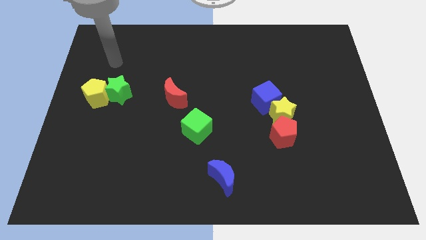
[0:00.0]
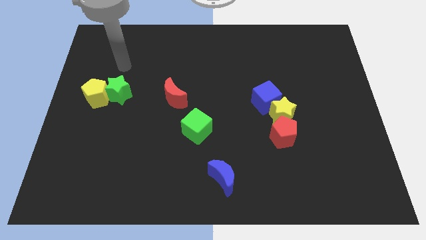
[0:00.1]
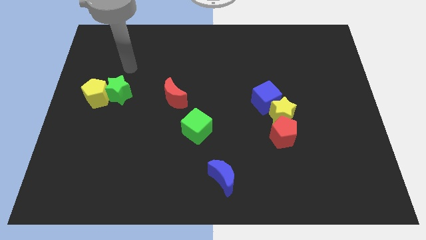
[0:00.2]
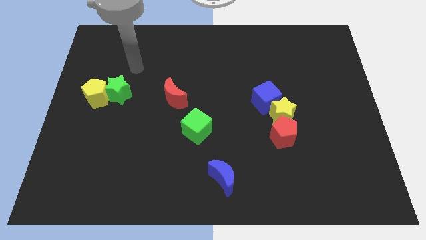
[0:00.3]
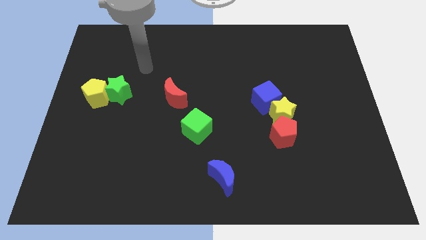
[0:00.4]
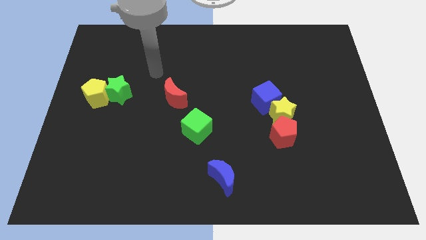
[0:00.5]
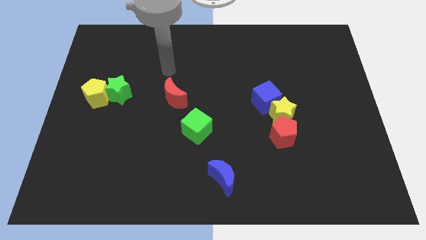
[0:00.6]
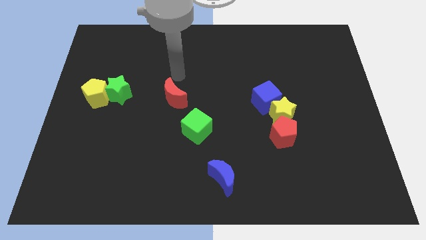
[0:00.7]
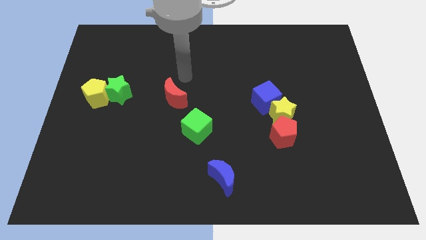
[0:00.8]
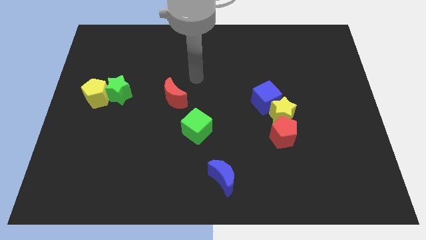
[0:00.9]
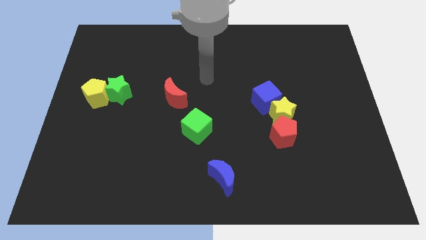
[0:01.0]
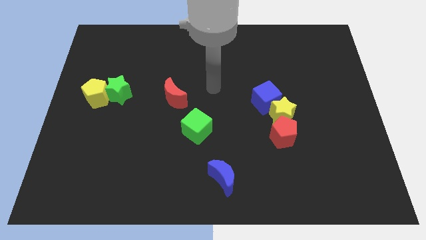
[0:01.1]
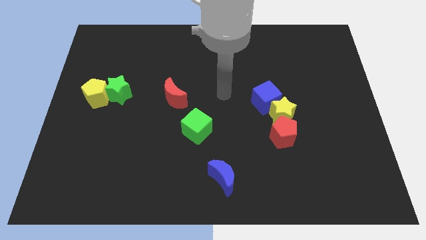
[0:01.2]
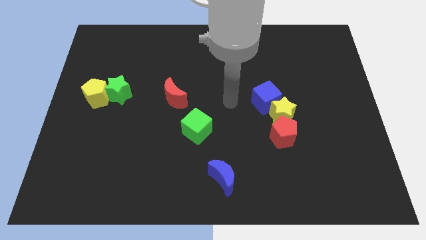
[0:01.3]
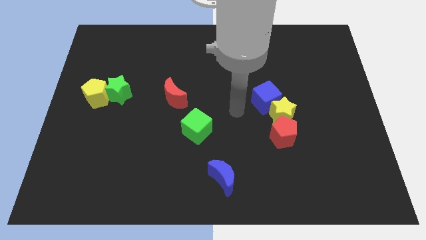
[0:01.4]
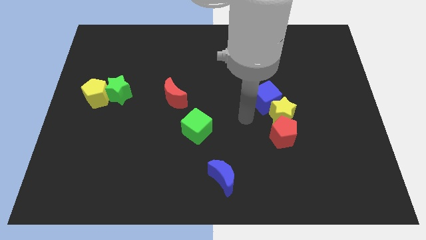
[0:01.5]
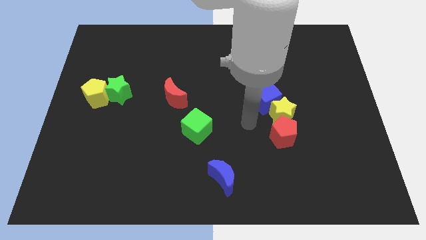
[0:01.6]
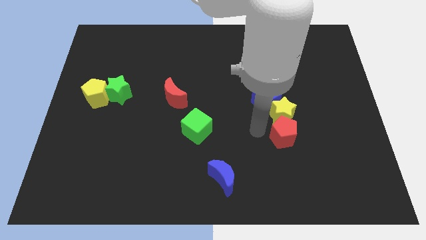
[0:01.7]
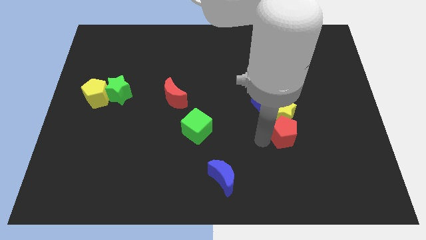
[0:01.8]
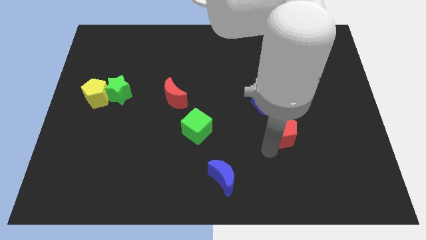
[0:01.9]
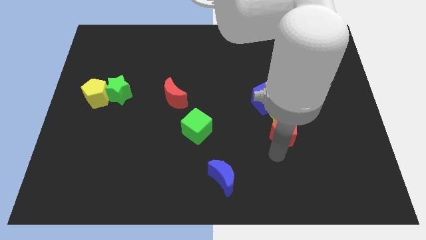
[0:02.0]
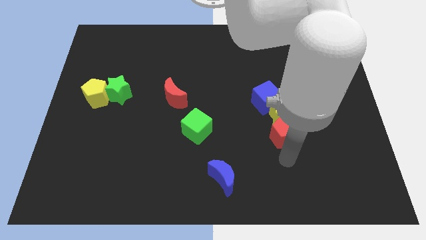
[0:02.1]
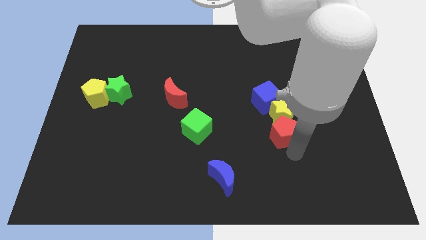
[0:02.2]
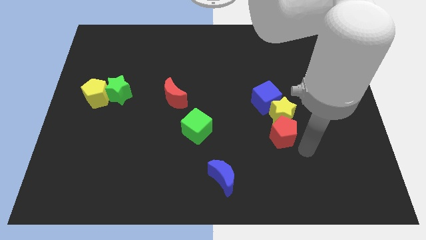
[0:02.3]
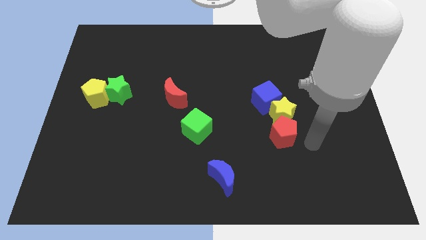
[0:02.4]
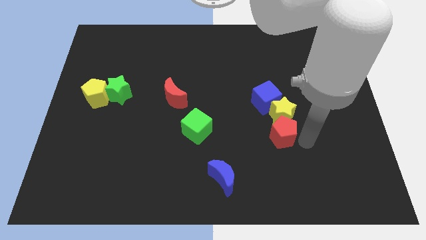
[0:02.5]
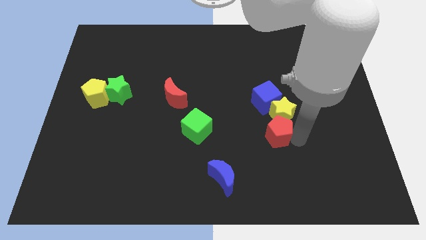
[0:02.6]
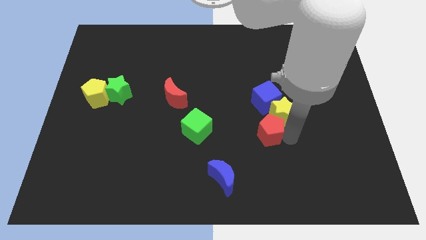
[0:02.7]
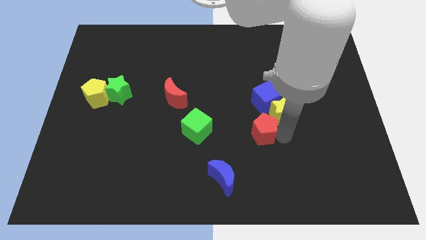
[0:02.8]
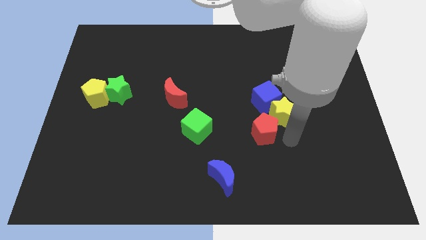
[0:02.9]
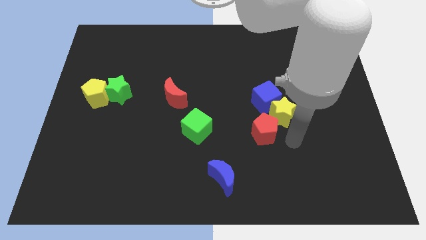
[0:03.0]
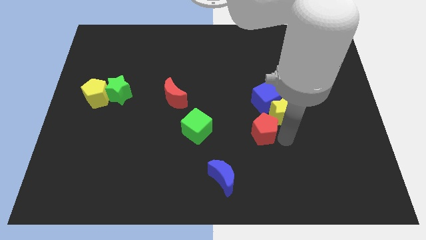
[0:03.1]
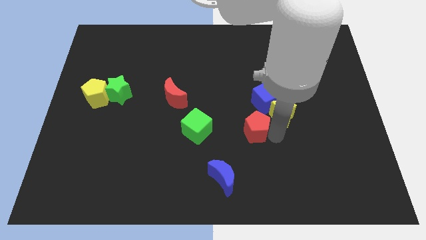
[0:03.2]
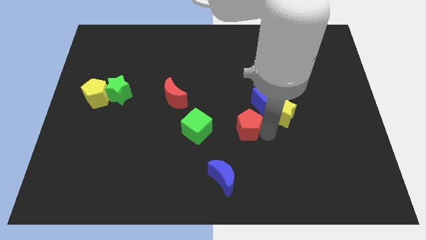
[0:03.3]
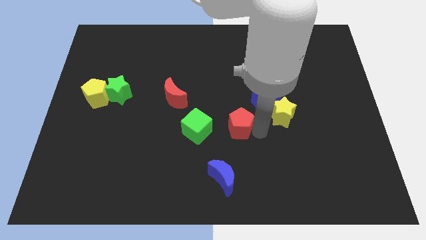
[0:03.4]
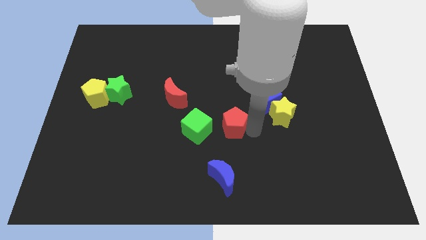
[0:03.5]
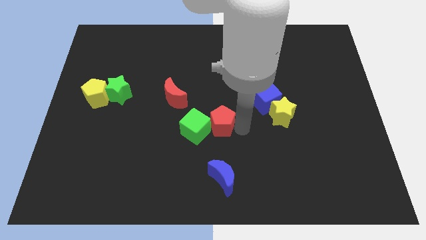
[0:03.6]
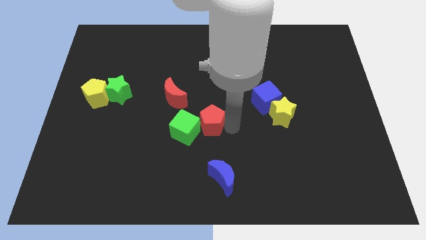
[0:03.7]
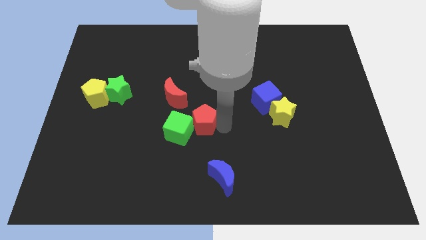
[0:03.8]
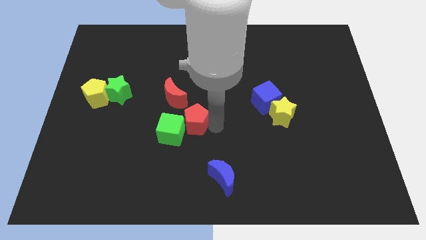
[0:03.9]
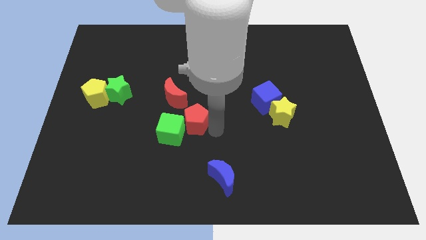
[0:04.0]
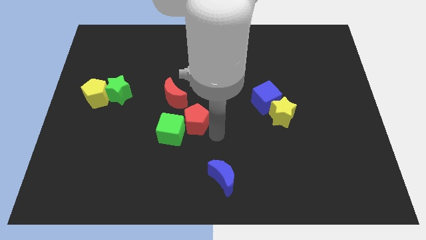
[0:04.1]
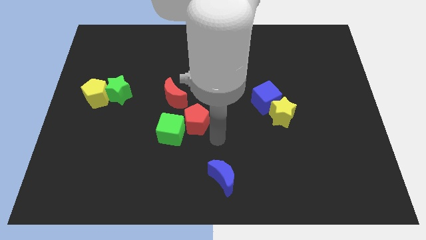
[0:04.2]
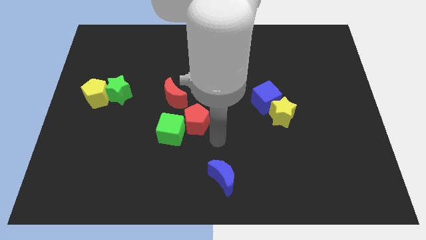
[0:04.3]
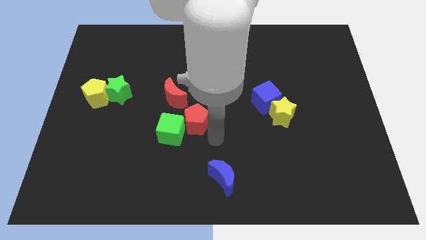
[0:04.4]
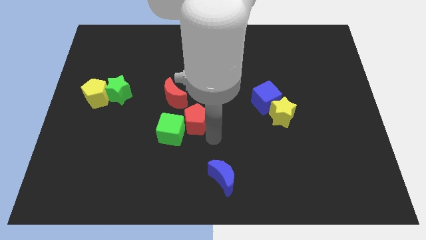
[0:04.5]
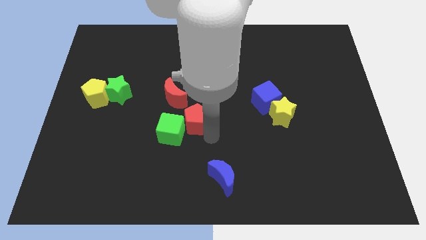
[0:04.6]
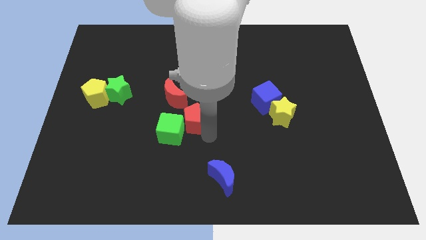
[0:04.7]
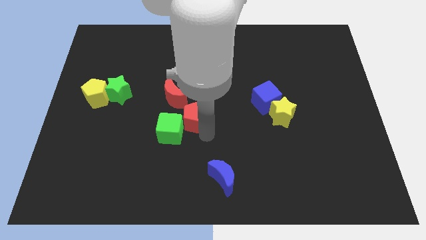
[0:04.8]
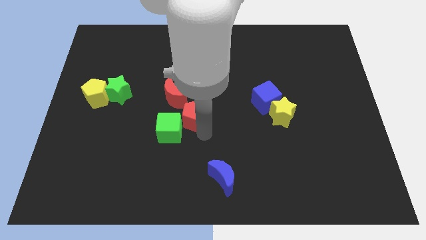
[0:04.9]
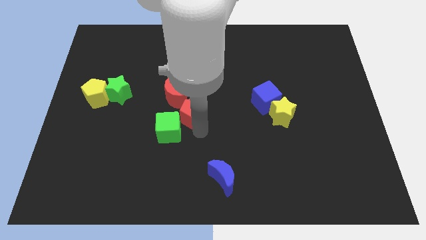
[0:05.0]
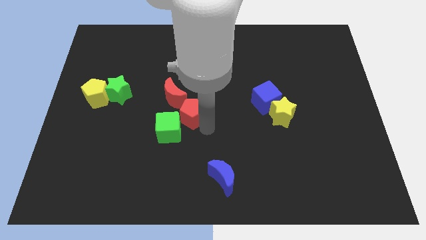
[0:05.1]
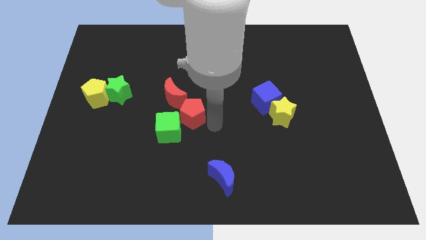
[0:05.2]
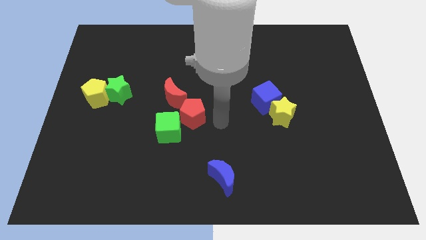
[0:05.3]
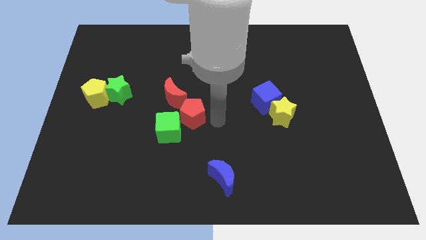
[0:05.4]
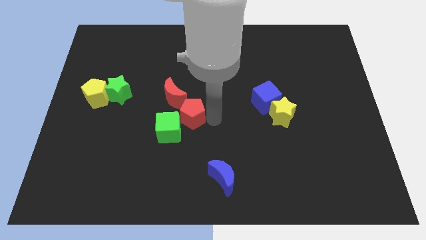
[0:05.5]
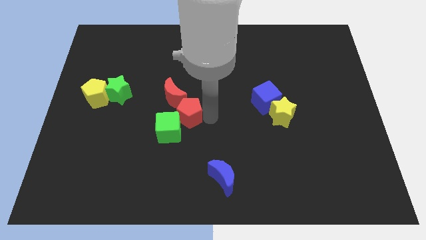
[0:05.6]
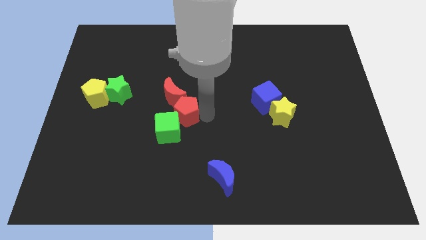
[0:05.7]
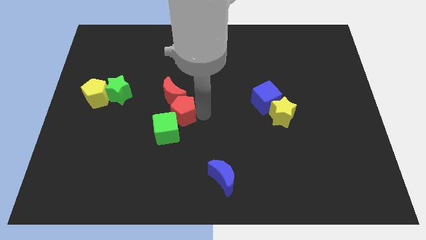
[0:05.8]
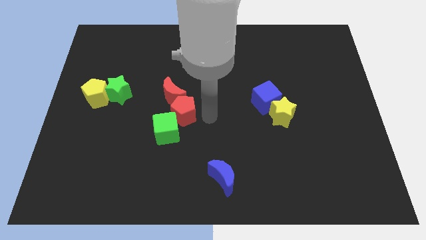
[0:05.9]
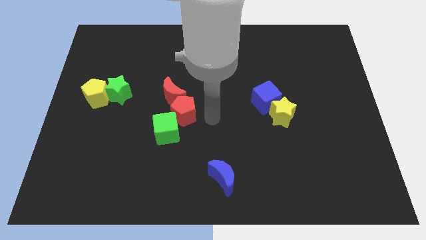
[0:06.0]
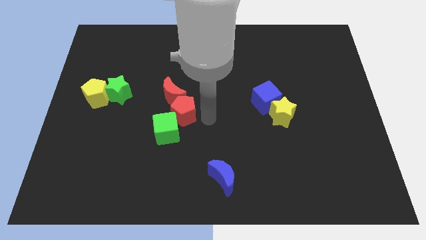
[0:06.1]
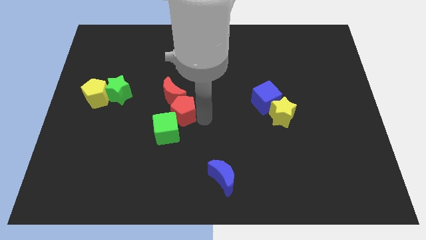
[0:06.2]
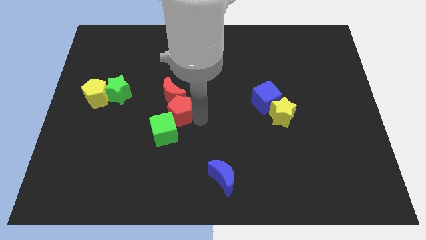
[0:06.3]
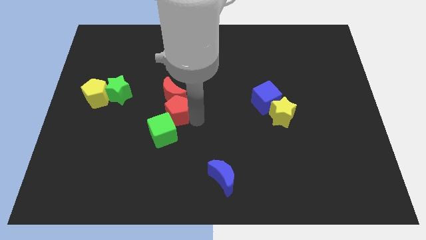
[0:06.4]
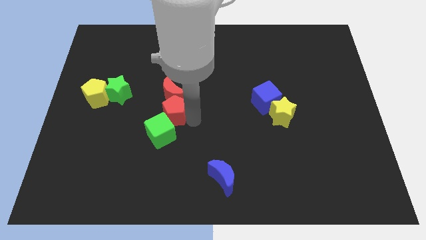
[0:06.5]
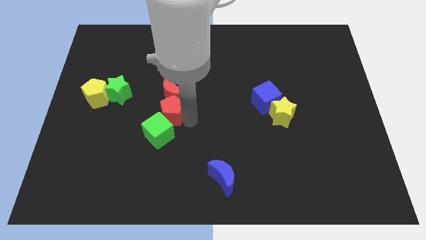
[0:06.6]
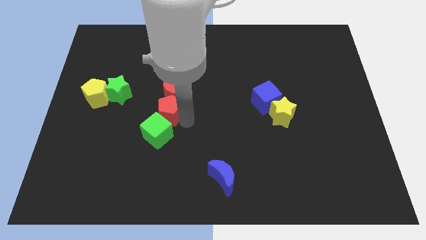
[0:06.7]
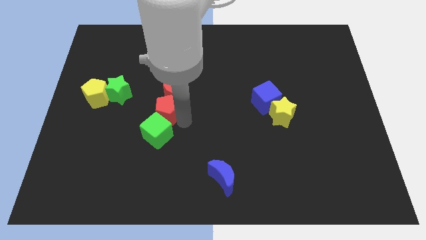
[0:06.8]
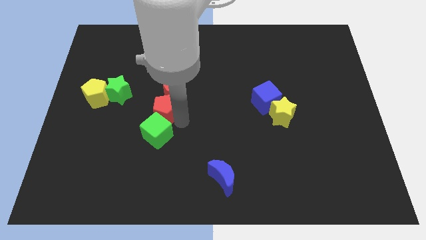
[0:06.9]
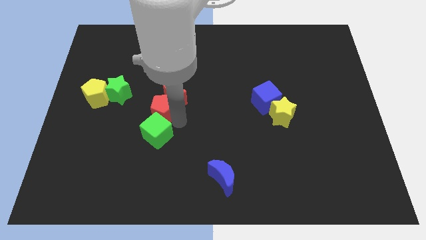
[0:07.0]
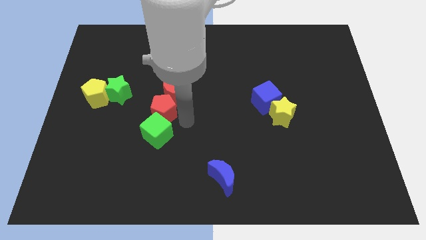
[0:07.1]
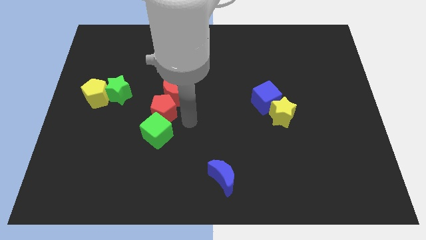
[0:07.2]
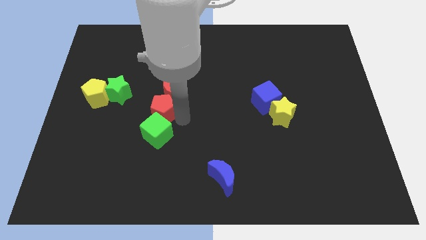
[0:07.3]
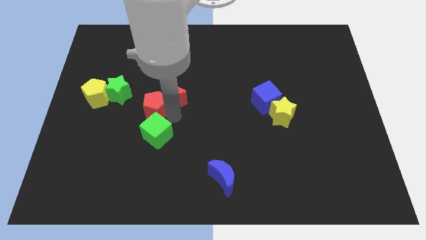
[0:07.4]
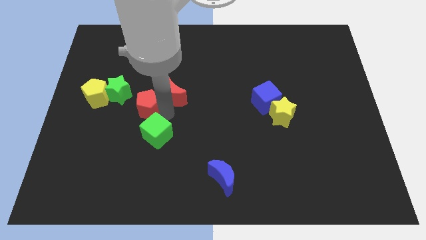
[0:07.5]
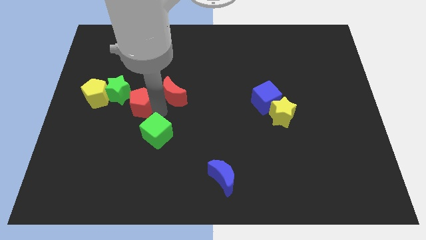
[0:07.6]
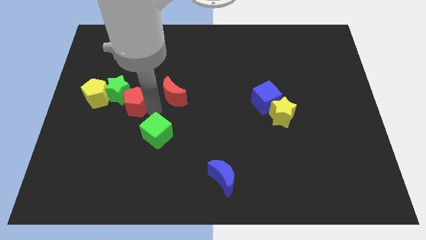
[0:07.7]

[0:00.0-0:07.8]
put the red pentagon next to the green star
